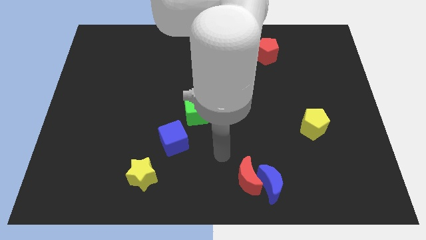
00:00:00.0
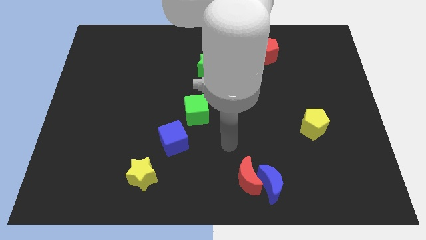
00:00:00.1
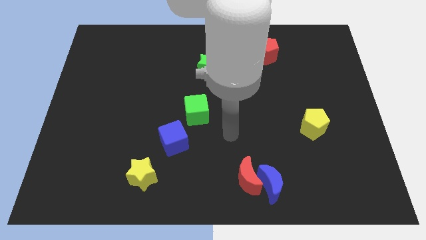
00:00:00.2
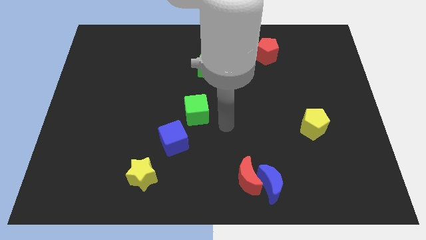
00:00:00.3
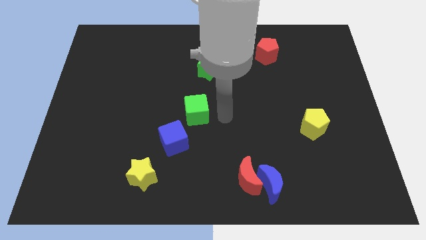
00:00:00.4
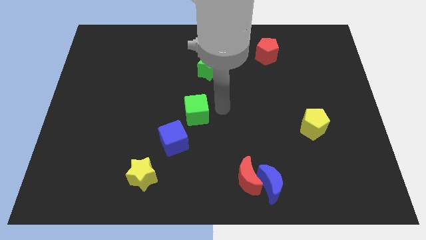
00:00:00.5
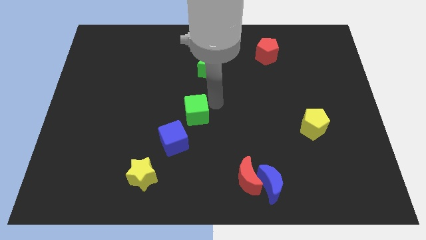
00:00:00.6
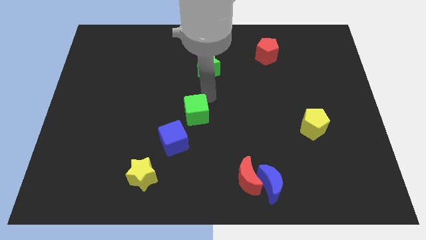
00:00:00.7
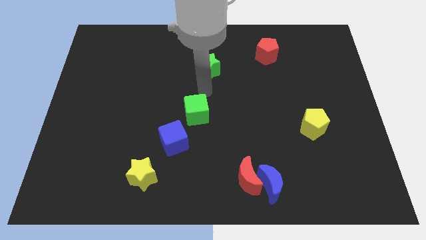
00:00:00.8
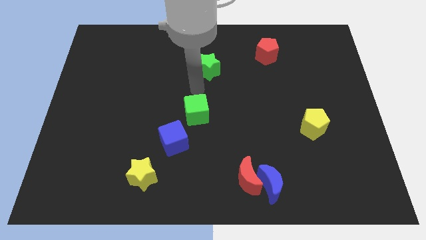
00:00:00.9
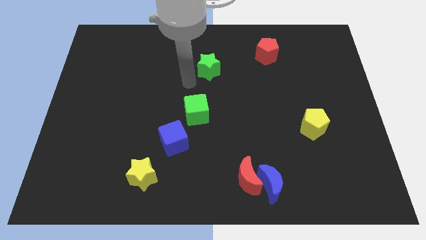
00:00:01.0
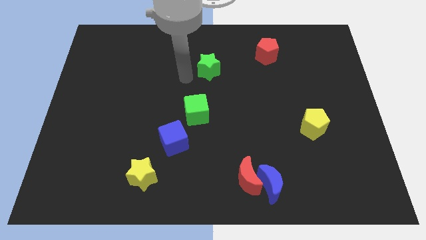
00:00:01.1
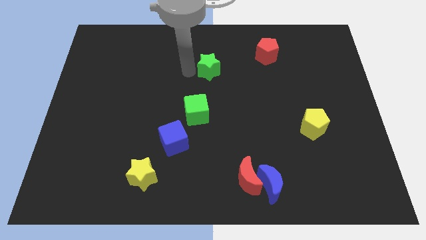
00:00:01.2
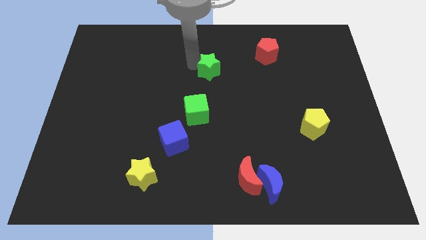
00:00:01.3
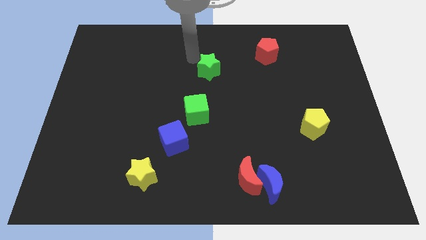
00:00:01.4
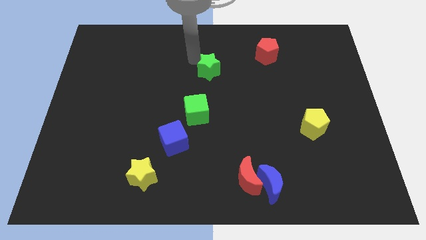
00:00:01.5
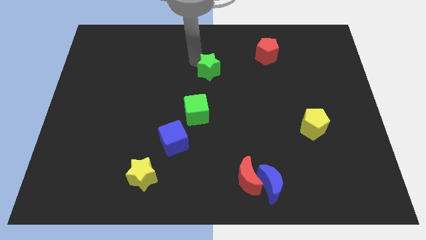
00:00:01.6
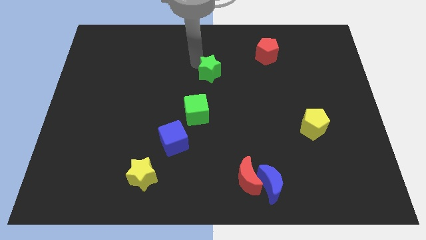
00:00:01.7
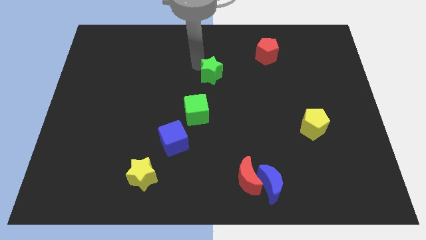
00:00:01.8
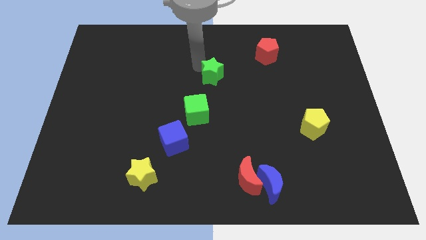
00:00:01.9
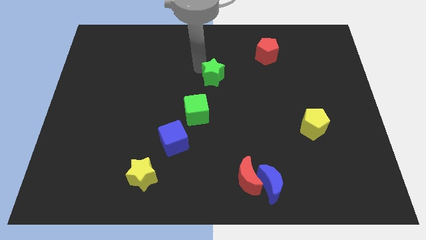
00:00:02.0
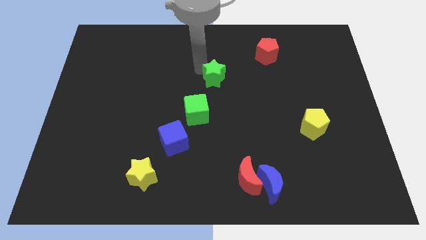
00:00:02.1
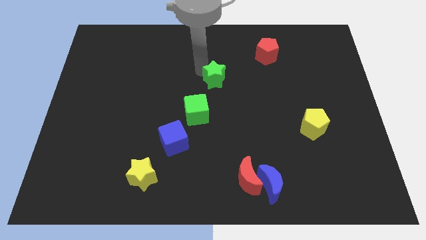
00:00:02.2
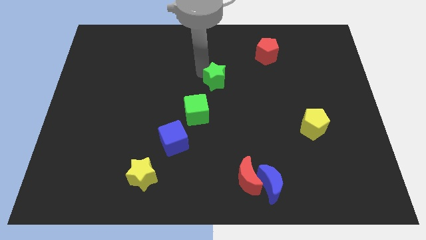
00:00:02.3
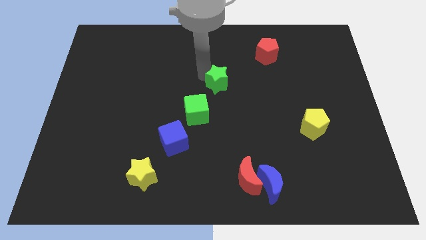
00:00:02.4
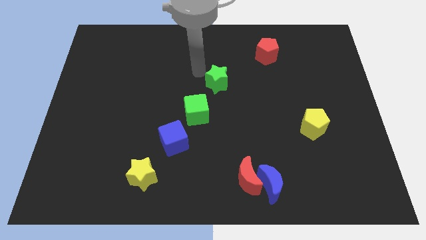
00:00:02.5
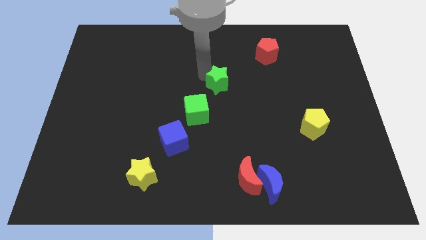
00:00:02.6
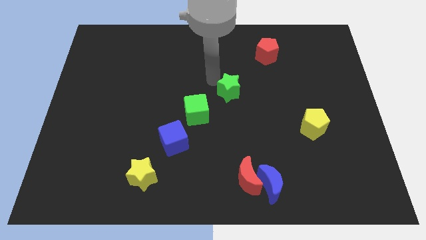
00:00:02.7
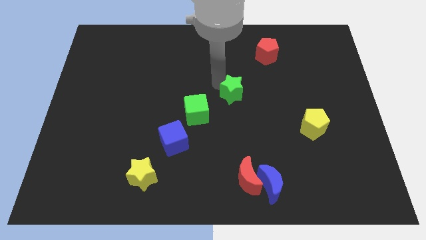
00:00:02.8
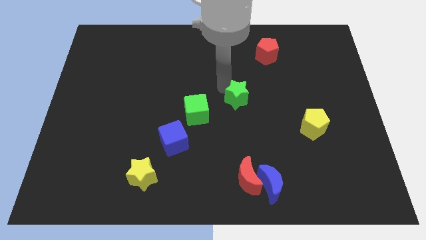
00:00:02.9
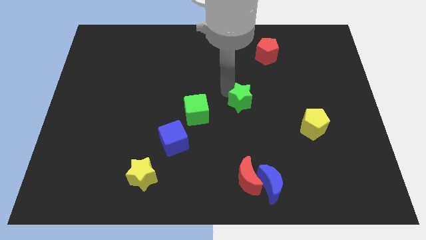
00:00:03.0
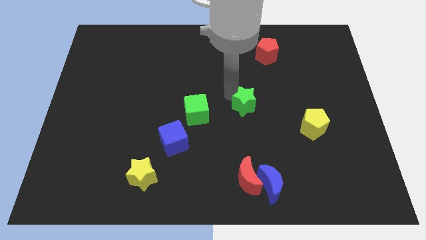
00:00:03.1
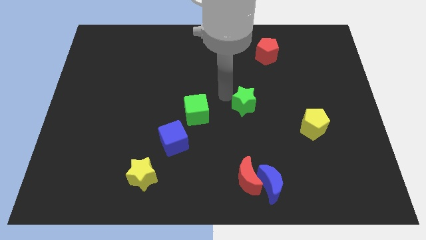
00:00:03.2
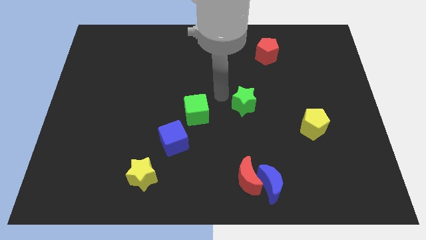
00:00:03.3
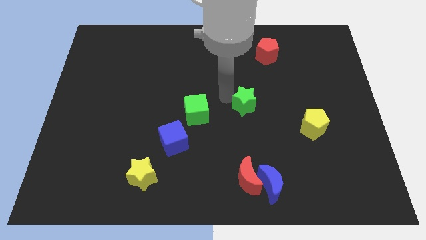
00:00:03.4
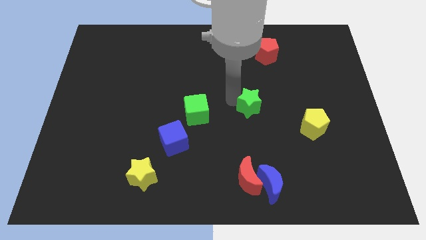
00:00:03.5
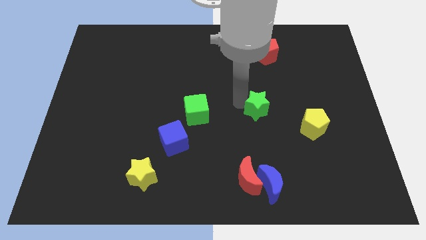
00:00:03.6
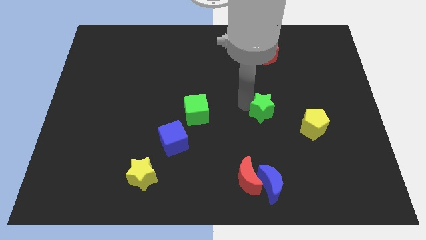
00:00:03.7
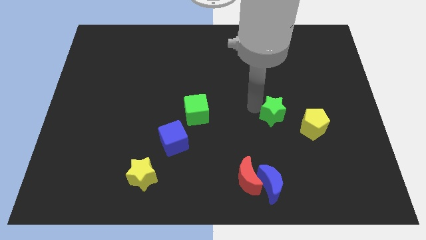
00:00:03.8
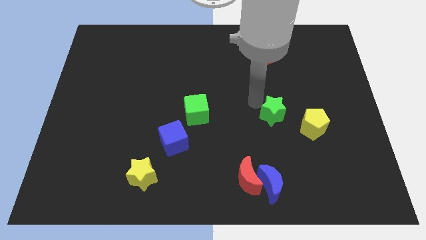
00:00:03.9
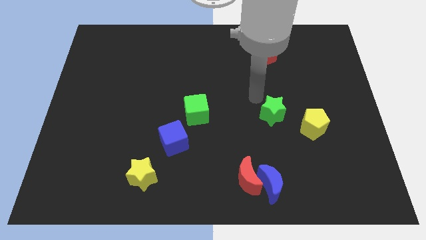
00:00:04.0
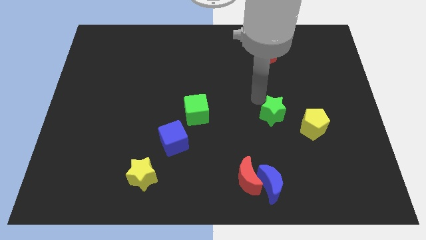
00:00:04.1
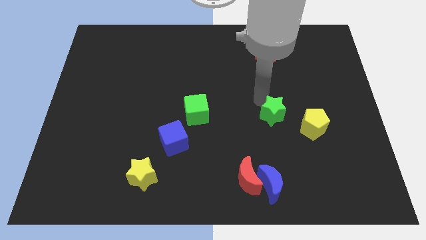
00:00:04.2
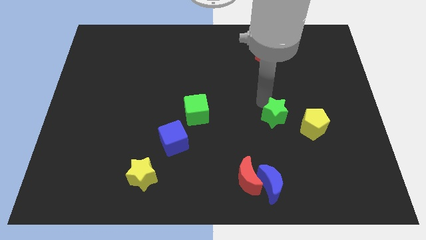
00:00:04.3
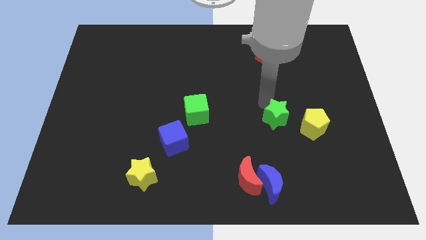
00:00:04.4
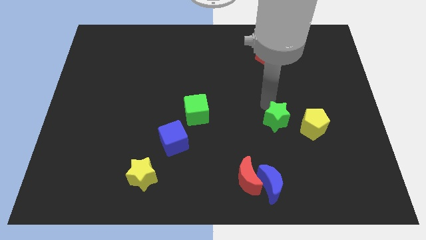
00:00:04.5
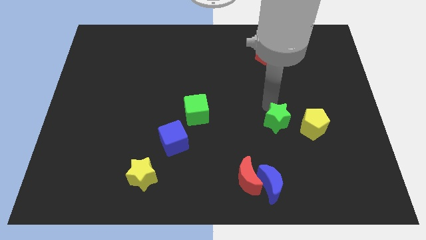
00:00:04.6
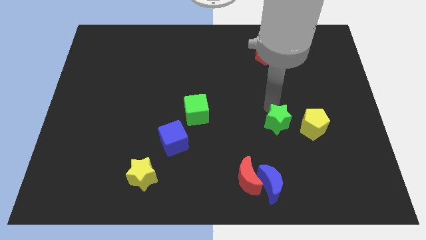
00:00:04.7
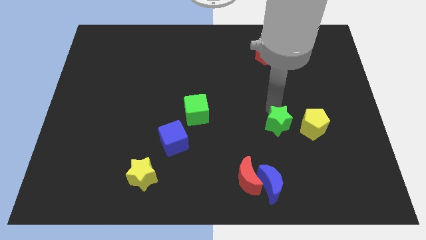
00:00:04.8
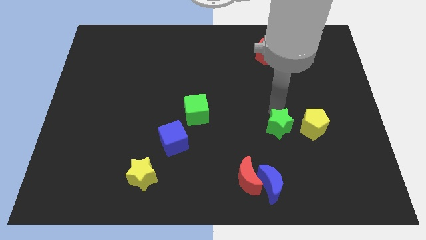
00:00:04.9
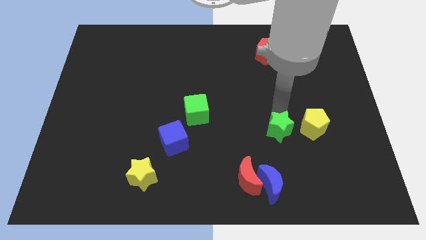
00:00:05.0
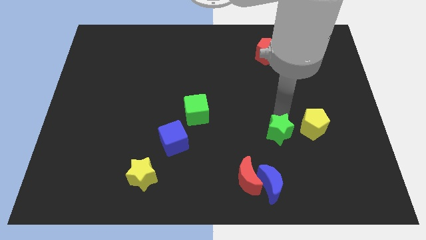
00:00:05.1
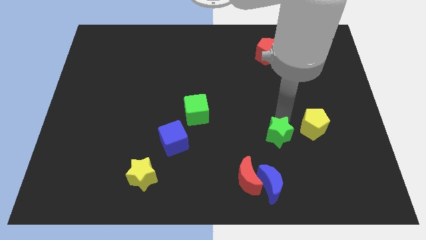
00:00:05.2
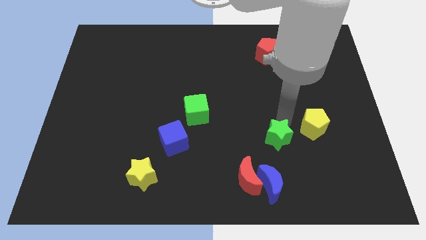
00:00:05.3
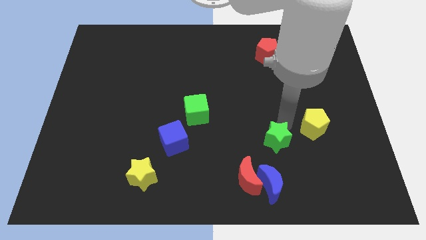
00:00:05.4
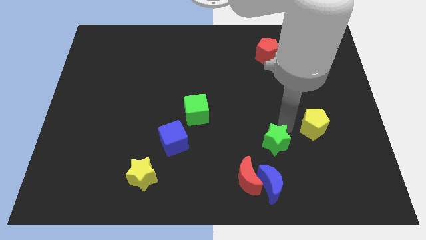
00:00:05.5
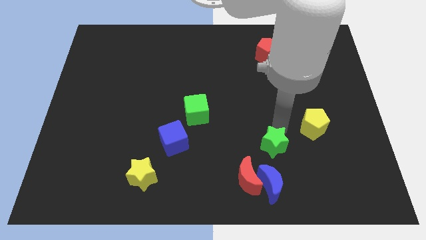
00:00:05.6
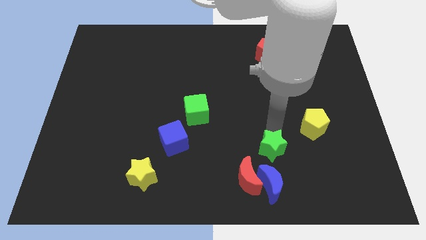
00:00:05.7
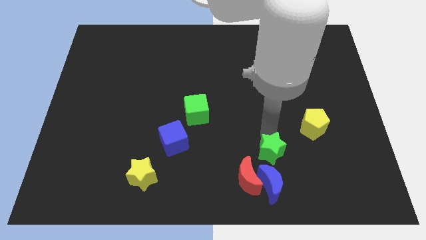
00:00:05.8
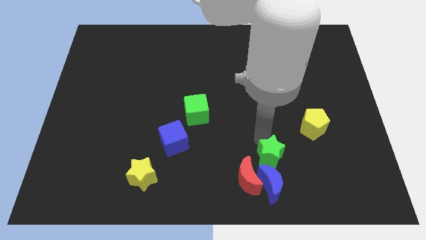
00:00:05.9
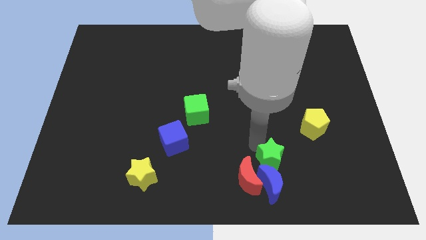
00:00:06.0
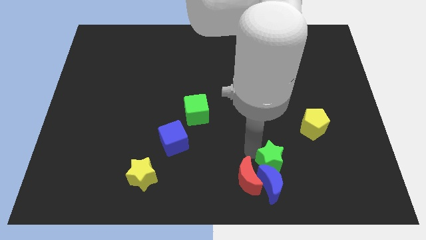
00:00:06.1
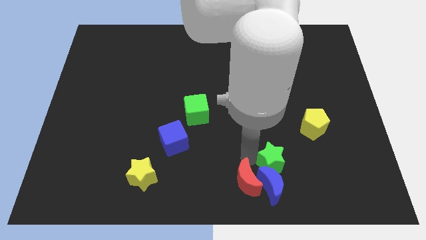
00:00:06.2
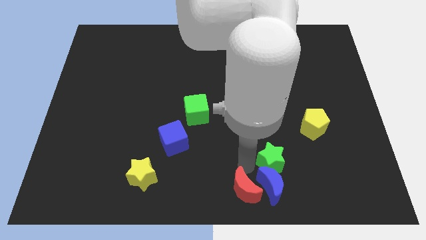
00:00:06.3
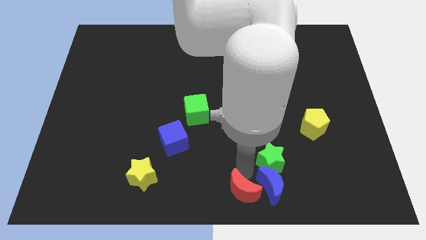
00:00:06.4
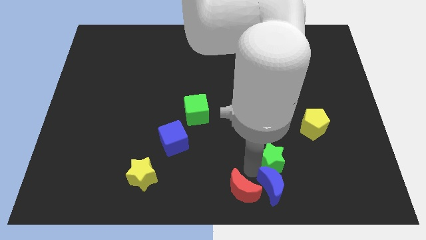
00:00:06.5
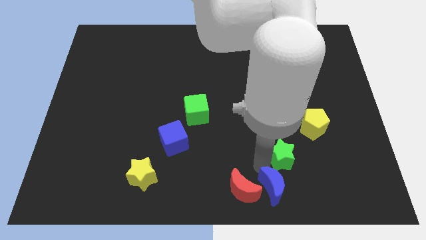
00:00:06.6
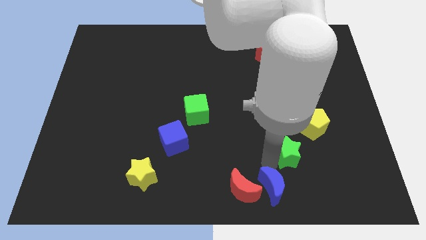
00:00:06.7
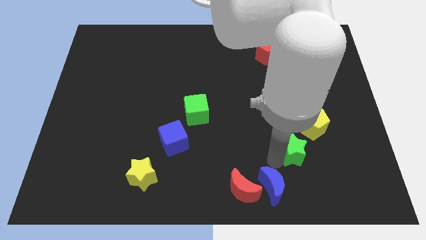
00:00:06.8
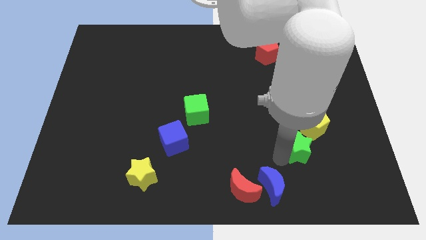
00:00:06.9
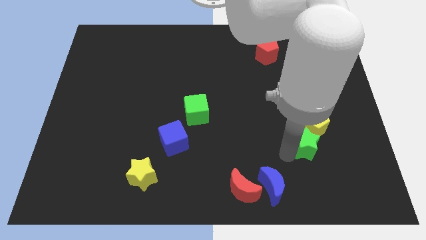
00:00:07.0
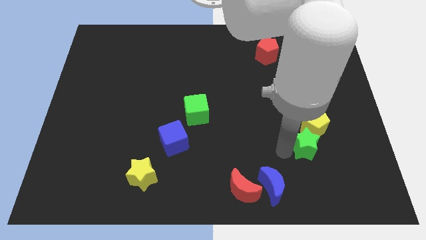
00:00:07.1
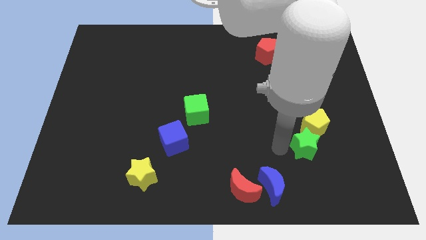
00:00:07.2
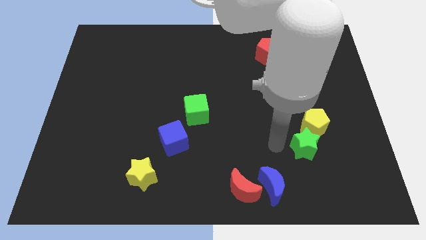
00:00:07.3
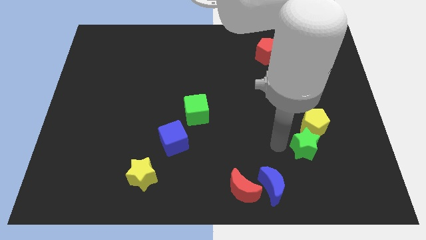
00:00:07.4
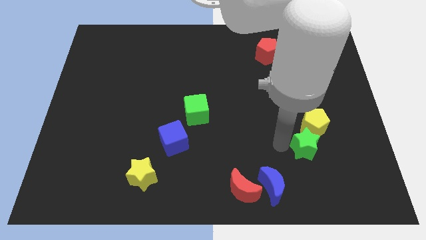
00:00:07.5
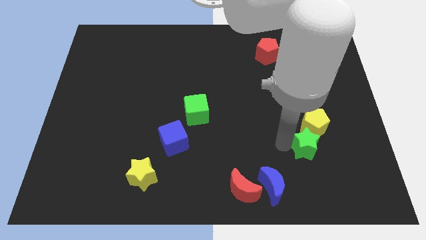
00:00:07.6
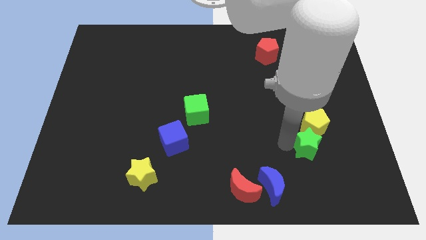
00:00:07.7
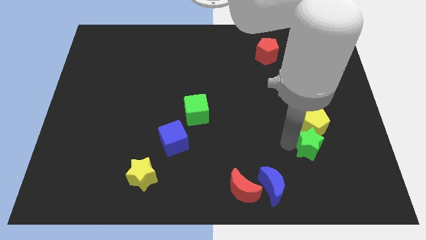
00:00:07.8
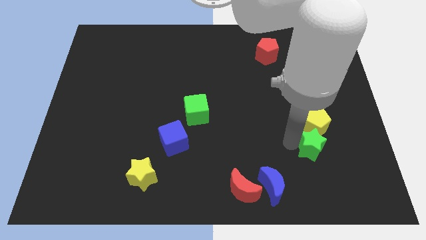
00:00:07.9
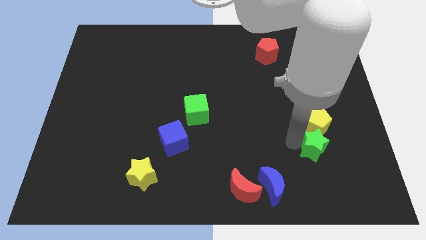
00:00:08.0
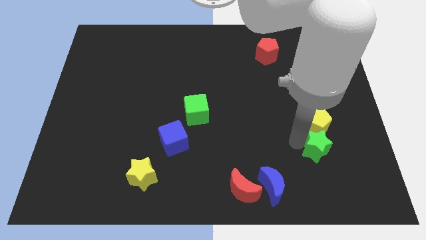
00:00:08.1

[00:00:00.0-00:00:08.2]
push the green star to the bottom right of the yellow pentagon
